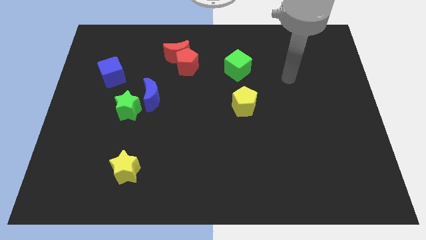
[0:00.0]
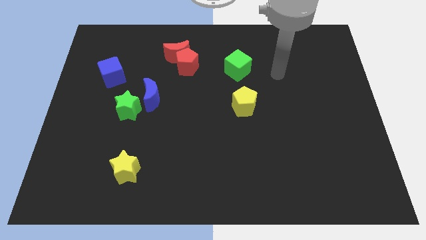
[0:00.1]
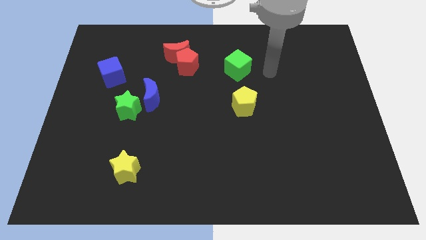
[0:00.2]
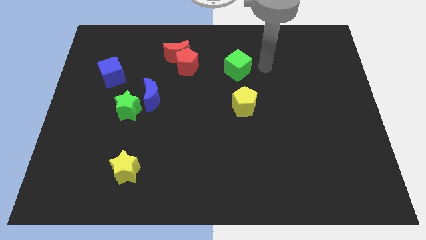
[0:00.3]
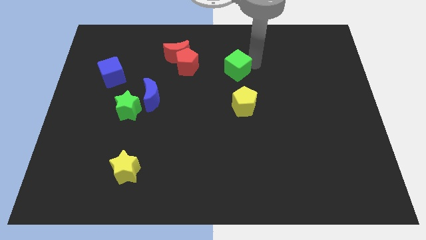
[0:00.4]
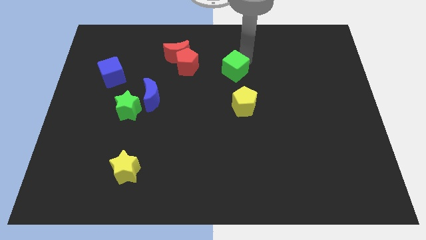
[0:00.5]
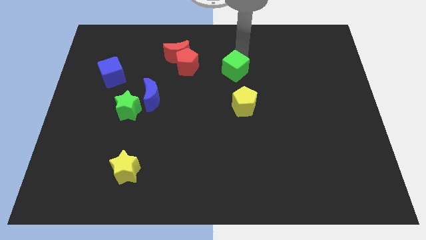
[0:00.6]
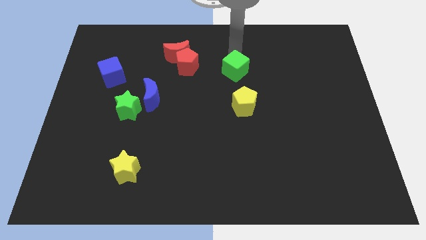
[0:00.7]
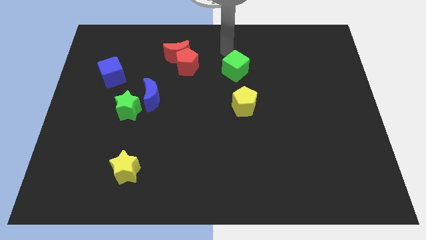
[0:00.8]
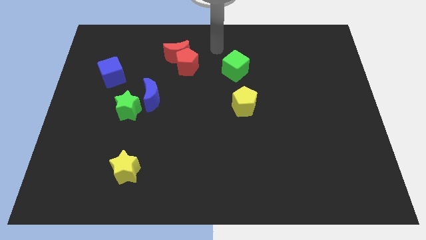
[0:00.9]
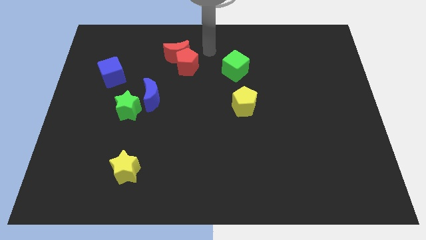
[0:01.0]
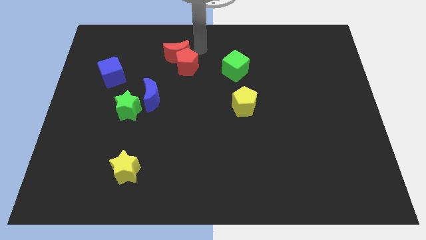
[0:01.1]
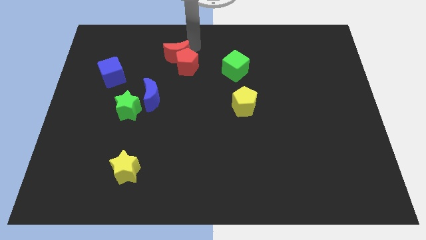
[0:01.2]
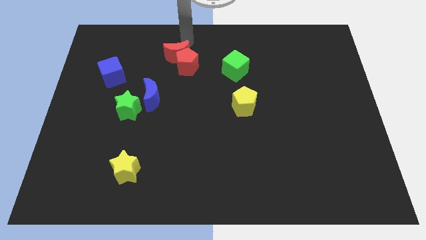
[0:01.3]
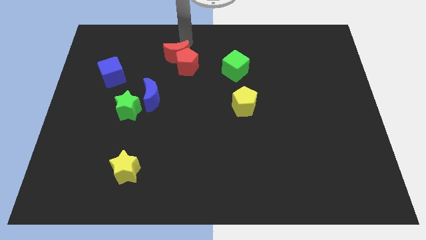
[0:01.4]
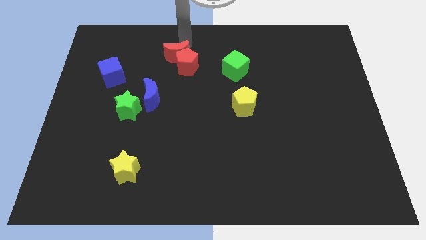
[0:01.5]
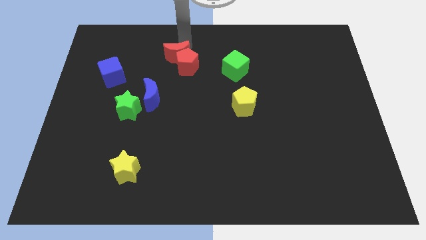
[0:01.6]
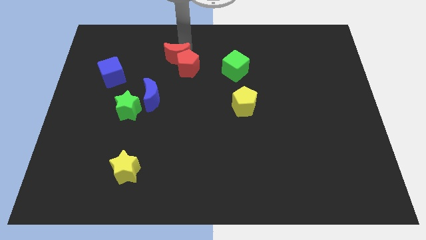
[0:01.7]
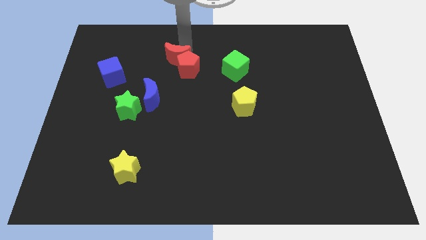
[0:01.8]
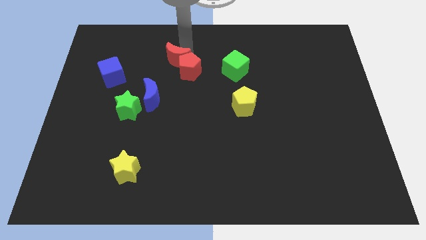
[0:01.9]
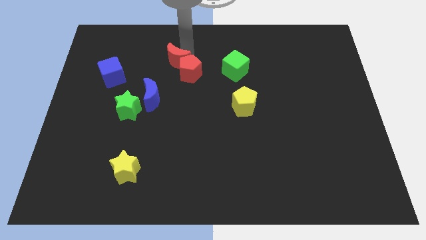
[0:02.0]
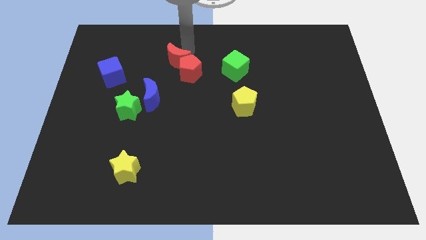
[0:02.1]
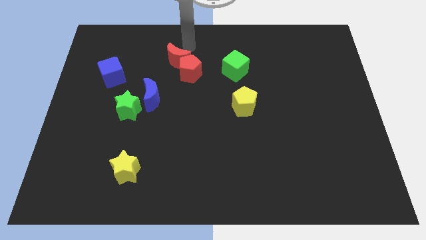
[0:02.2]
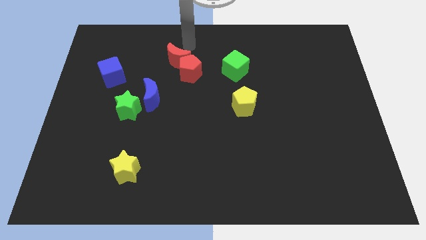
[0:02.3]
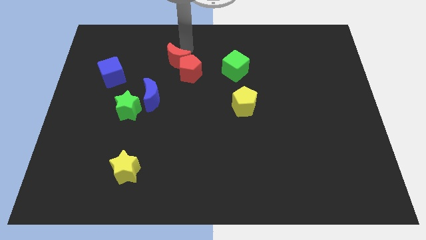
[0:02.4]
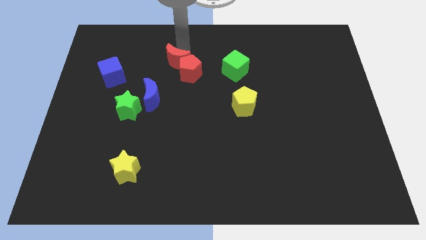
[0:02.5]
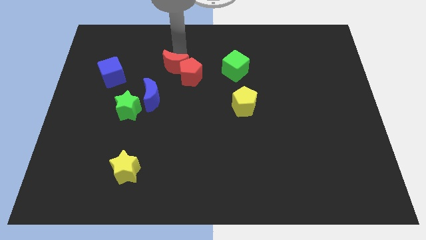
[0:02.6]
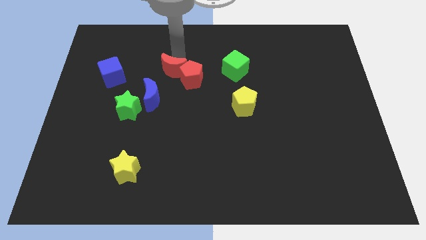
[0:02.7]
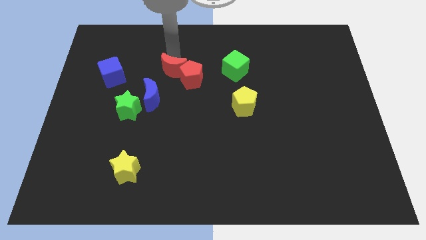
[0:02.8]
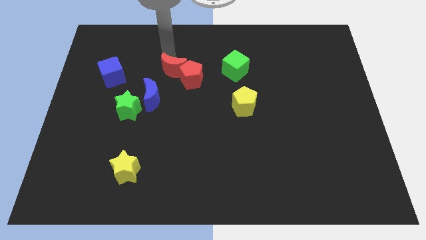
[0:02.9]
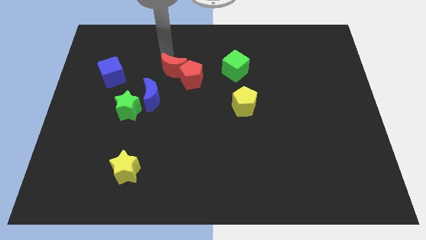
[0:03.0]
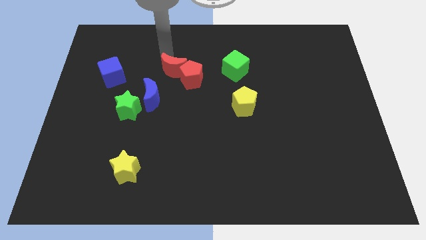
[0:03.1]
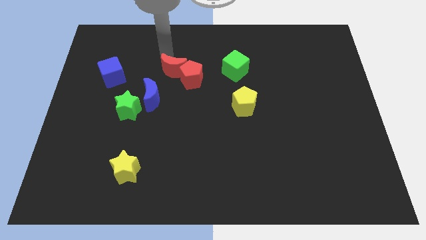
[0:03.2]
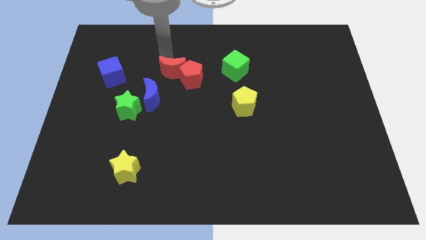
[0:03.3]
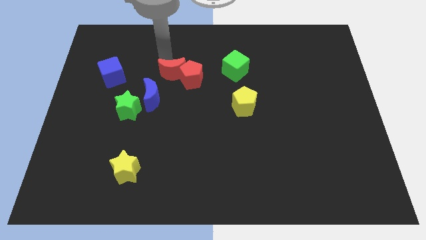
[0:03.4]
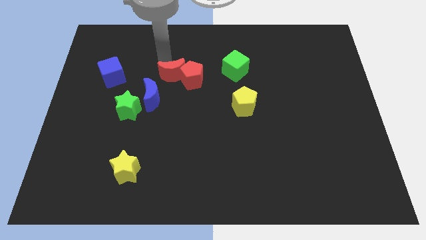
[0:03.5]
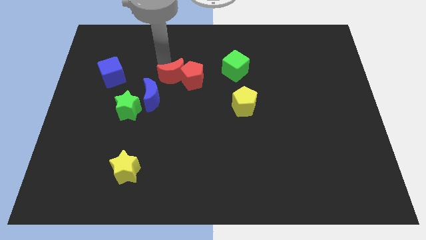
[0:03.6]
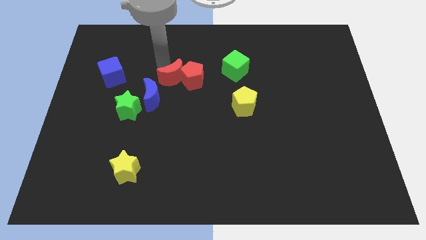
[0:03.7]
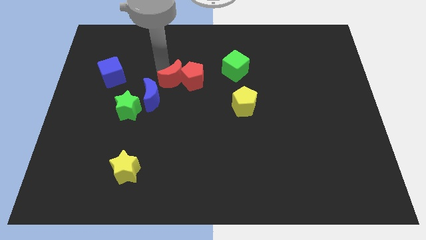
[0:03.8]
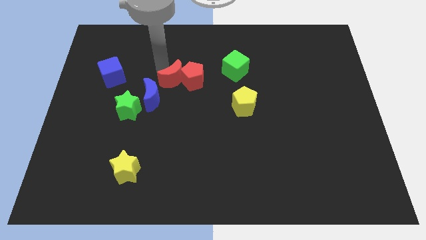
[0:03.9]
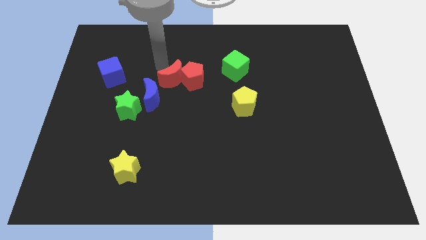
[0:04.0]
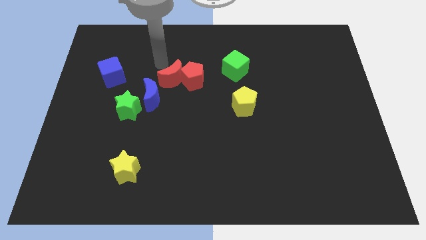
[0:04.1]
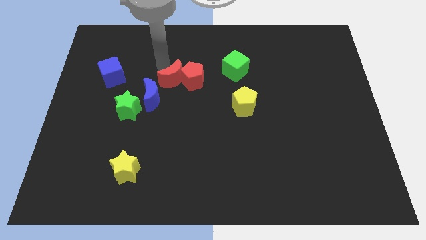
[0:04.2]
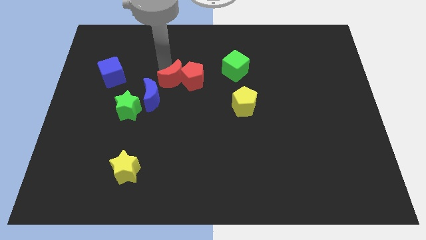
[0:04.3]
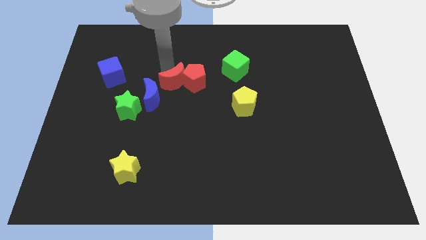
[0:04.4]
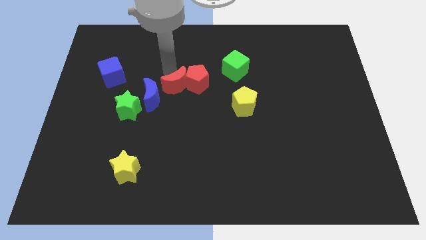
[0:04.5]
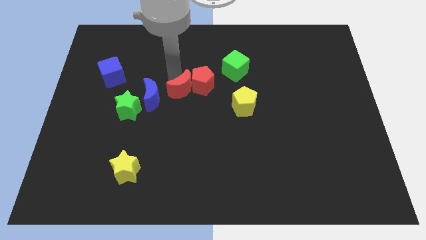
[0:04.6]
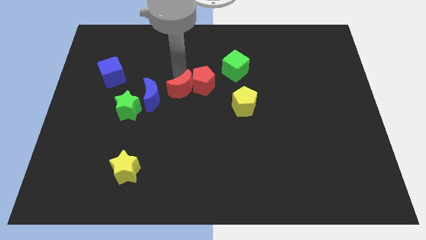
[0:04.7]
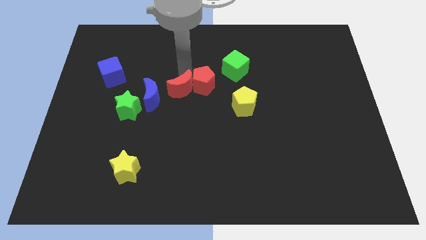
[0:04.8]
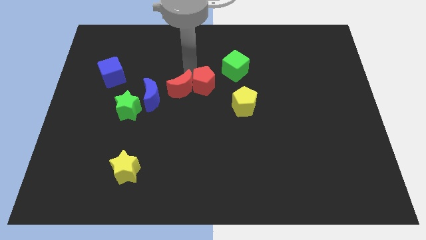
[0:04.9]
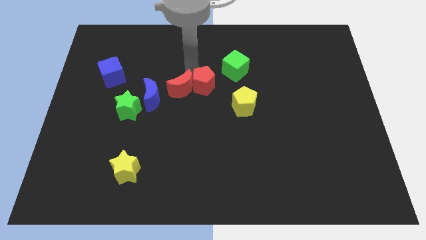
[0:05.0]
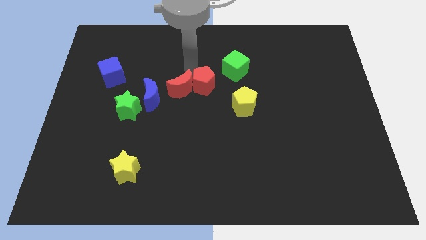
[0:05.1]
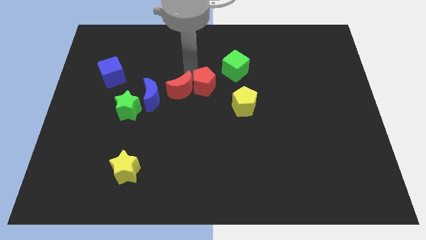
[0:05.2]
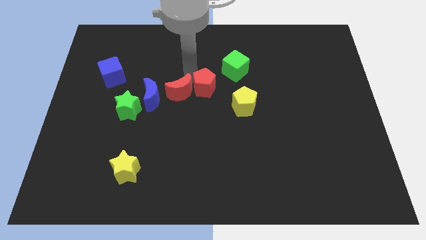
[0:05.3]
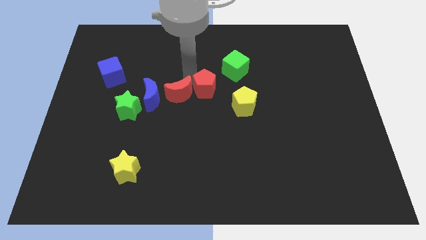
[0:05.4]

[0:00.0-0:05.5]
move the red moon right of the green star

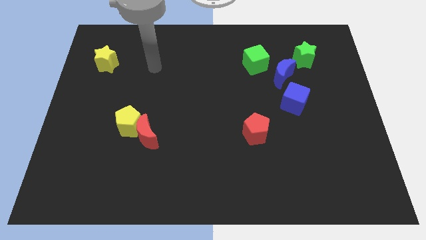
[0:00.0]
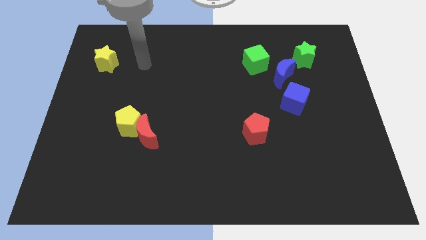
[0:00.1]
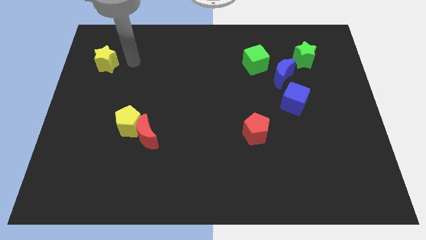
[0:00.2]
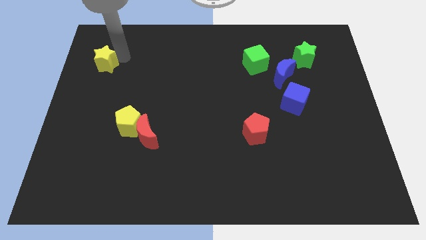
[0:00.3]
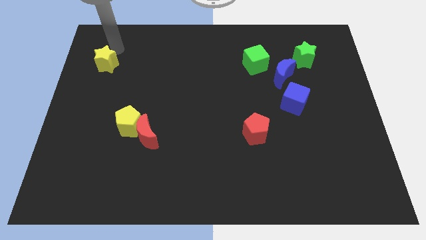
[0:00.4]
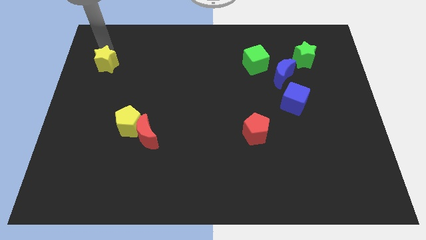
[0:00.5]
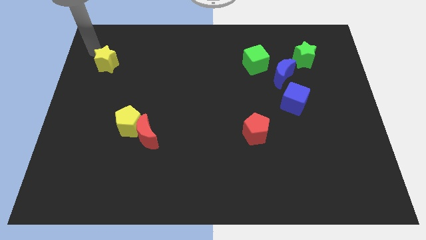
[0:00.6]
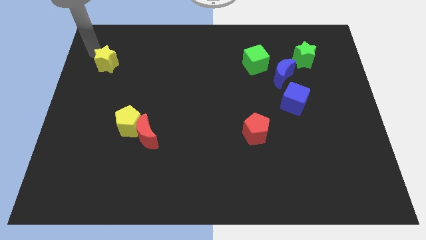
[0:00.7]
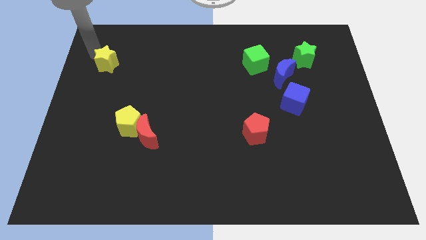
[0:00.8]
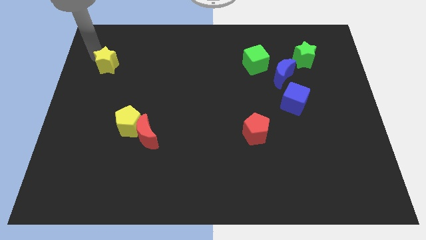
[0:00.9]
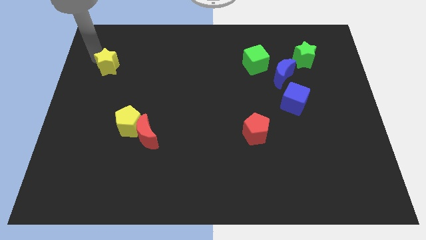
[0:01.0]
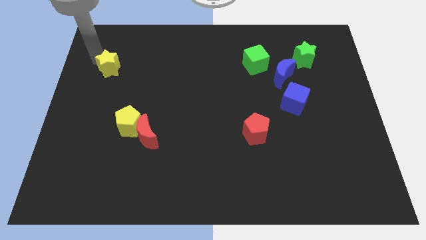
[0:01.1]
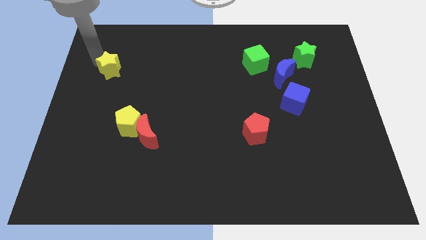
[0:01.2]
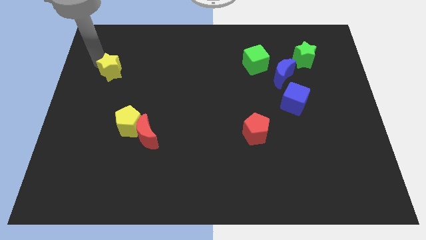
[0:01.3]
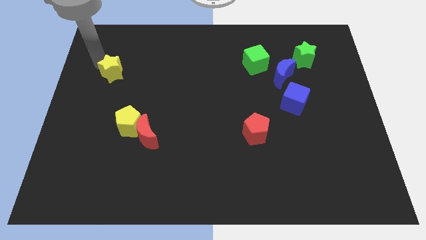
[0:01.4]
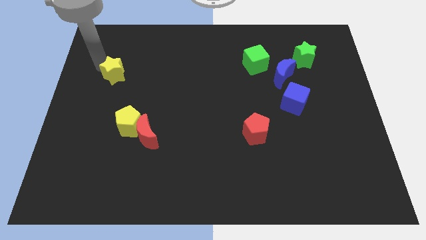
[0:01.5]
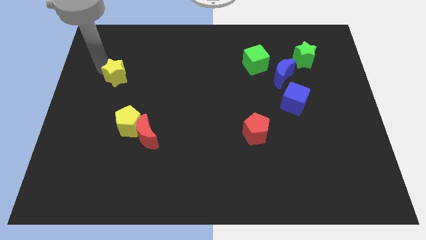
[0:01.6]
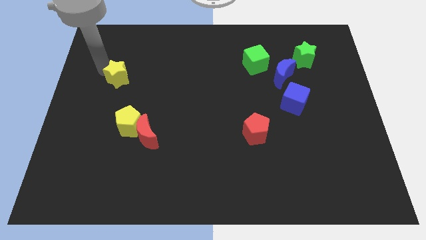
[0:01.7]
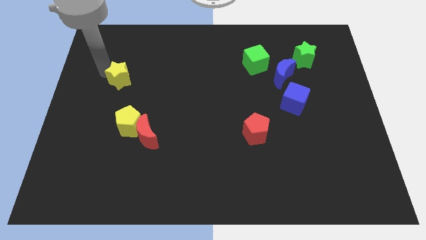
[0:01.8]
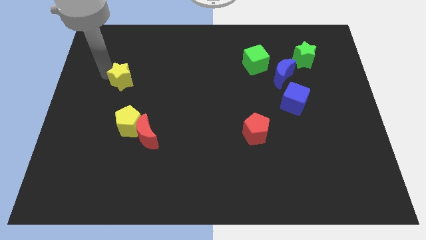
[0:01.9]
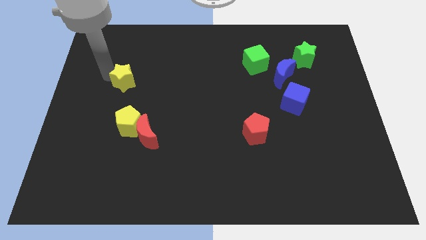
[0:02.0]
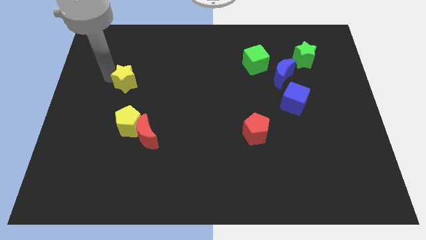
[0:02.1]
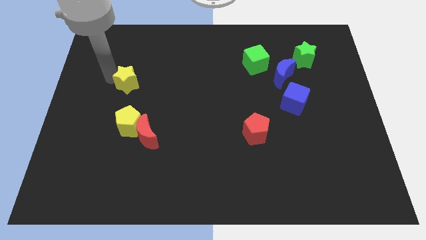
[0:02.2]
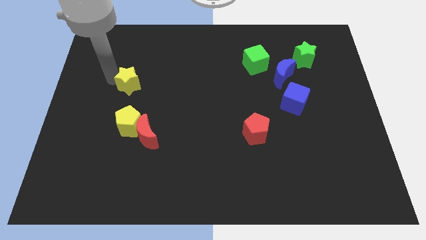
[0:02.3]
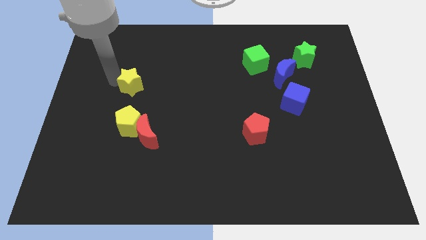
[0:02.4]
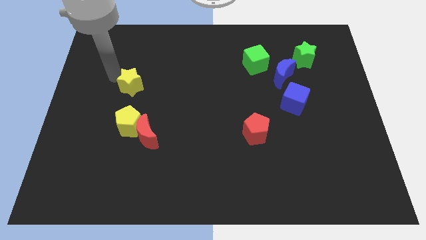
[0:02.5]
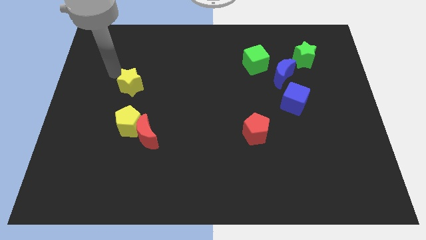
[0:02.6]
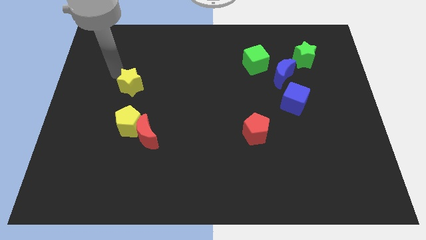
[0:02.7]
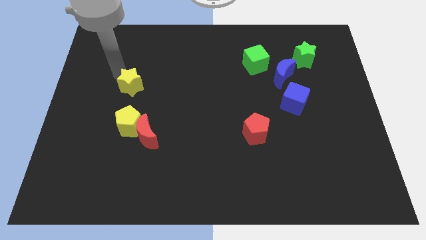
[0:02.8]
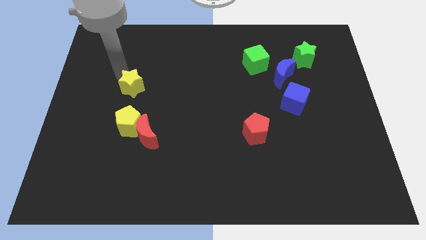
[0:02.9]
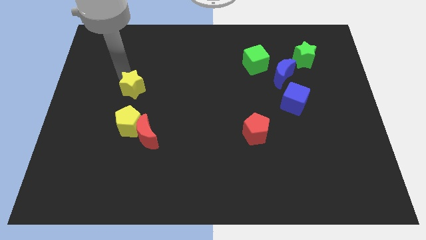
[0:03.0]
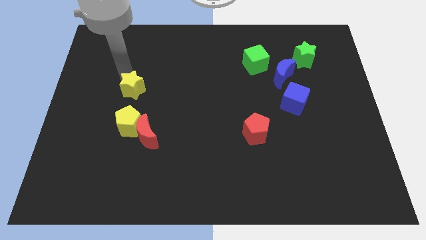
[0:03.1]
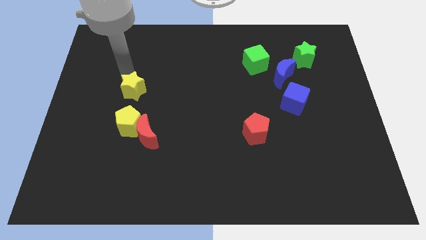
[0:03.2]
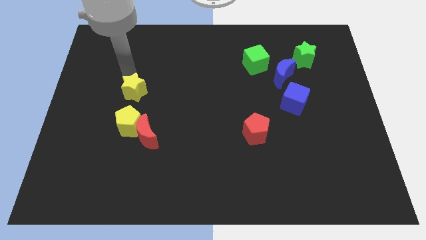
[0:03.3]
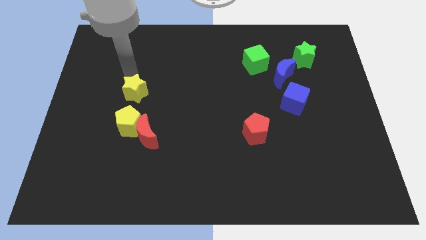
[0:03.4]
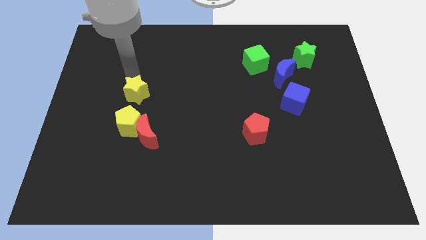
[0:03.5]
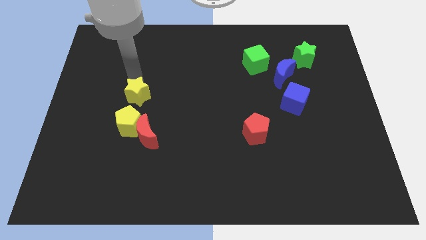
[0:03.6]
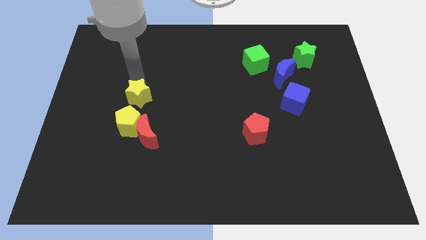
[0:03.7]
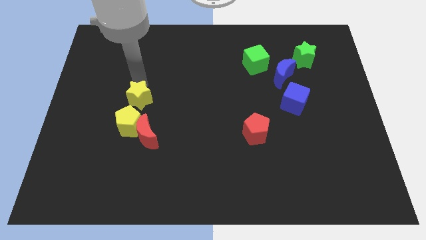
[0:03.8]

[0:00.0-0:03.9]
slide the yellow star diagonally up and to the right of the yellow pentagon
